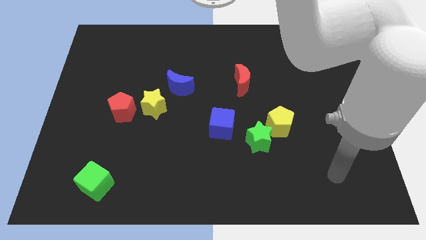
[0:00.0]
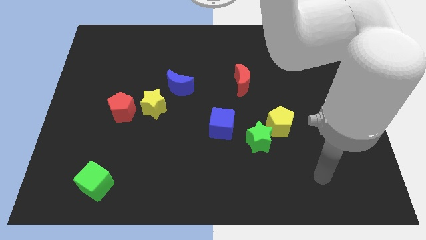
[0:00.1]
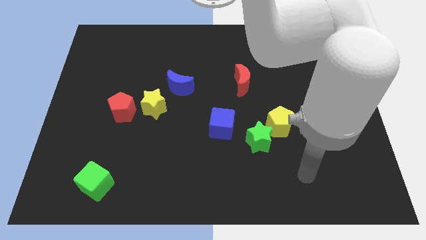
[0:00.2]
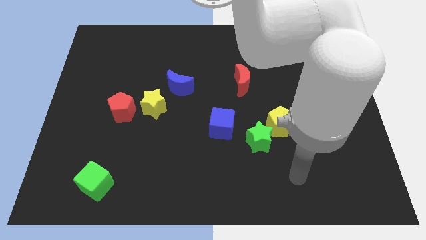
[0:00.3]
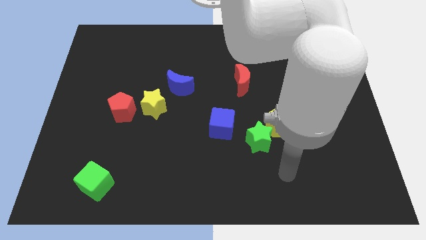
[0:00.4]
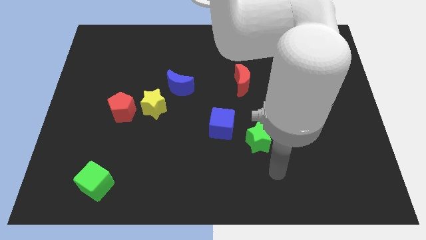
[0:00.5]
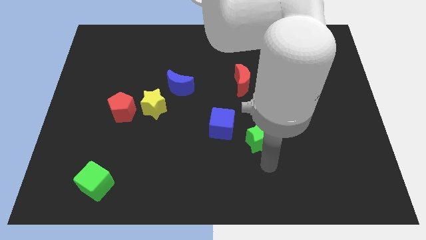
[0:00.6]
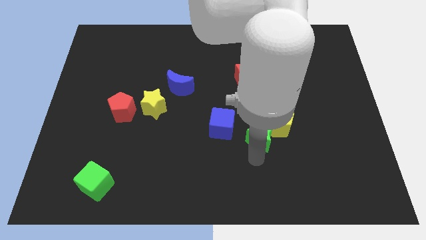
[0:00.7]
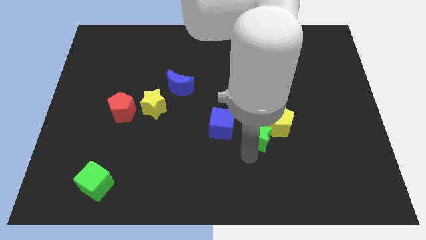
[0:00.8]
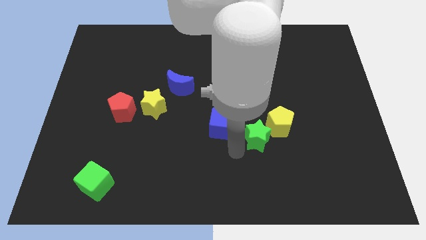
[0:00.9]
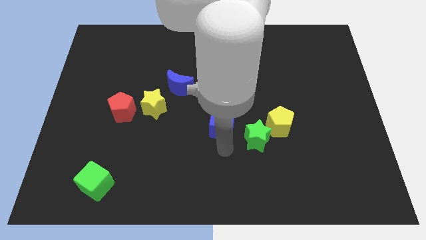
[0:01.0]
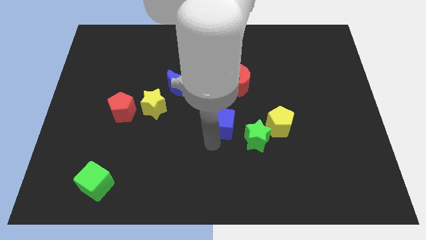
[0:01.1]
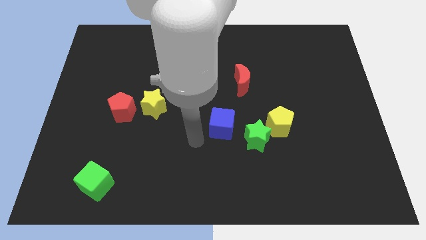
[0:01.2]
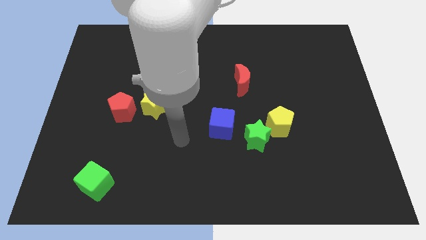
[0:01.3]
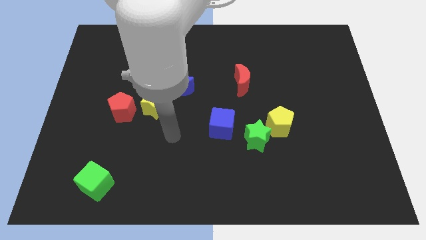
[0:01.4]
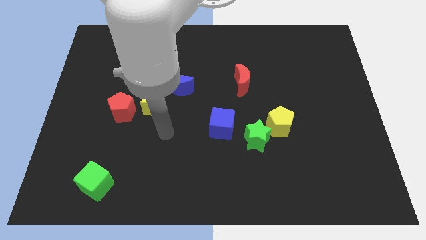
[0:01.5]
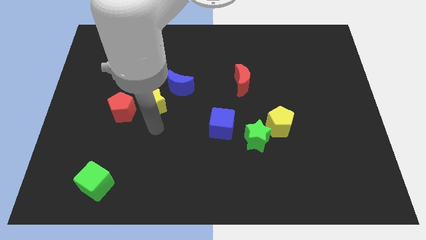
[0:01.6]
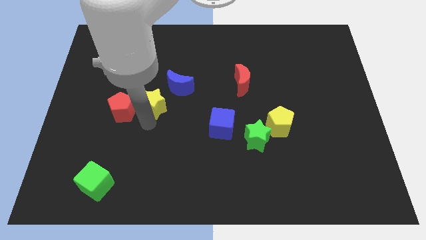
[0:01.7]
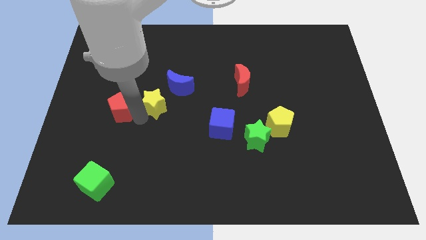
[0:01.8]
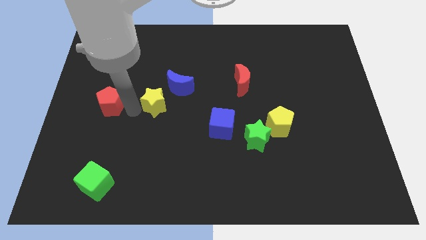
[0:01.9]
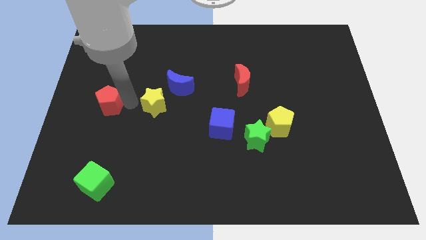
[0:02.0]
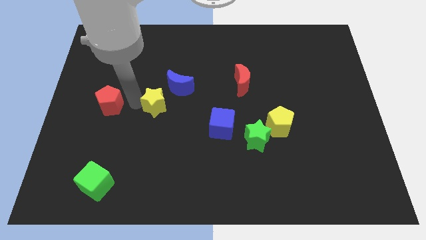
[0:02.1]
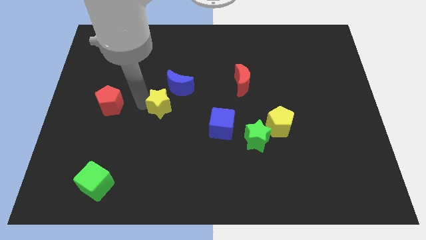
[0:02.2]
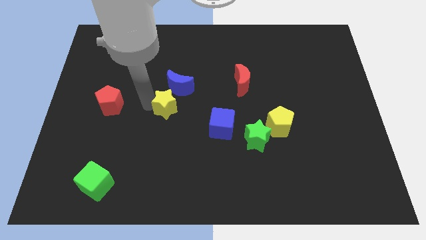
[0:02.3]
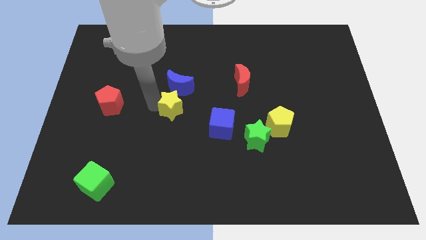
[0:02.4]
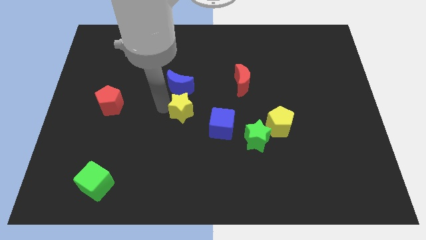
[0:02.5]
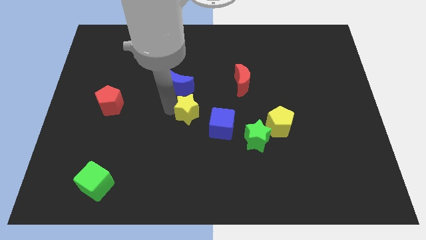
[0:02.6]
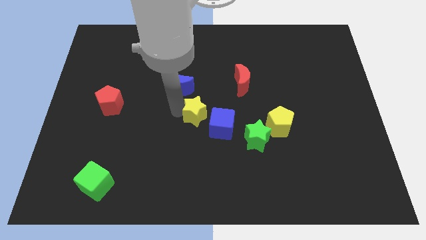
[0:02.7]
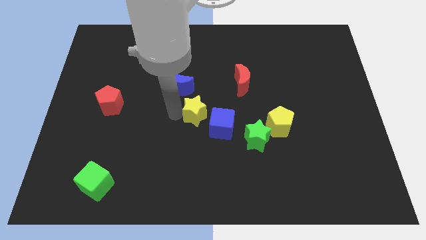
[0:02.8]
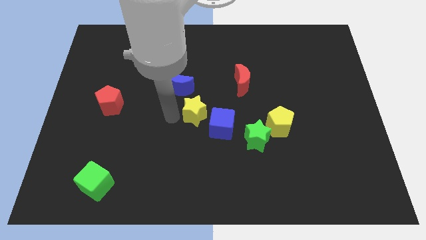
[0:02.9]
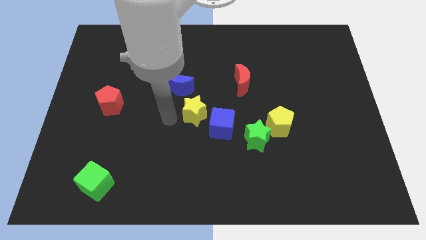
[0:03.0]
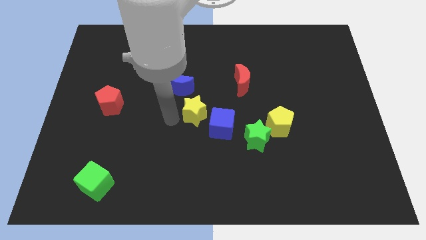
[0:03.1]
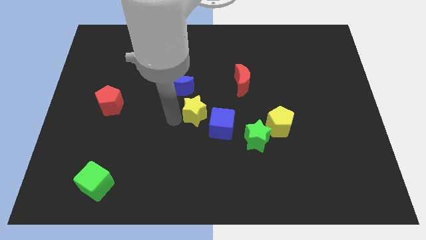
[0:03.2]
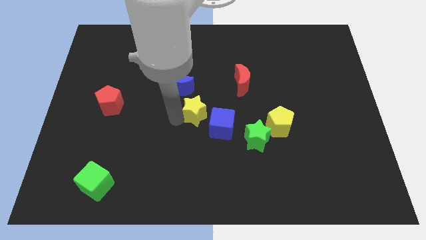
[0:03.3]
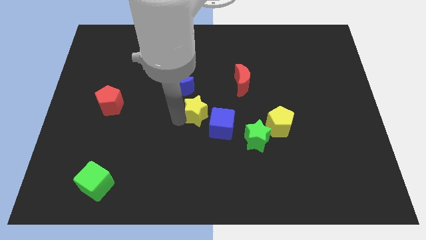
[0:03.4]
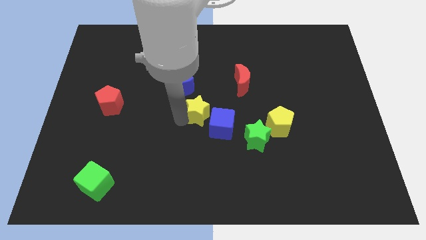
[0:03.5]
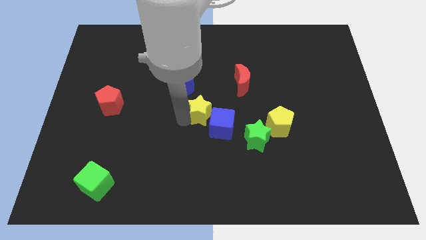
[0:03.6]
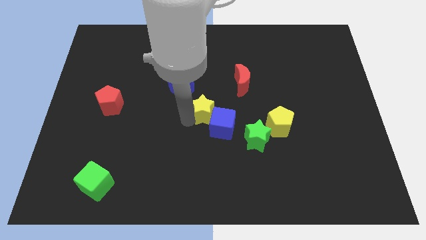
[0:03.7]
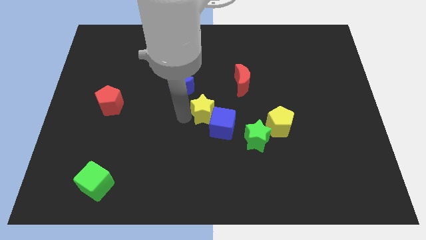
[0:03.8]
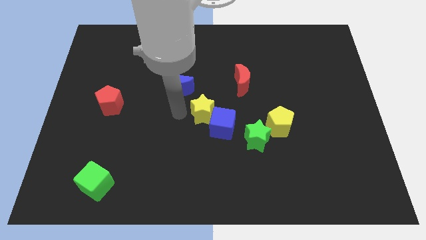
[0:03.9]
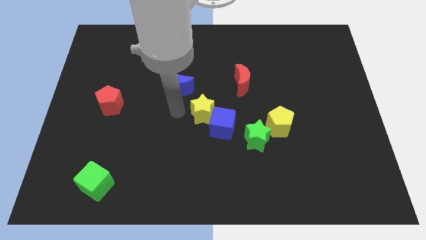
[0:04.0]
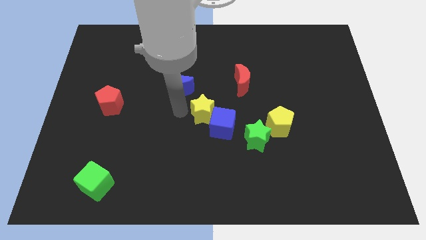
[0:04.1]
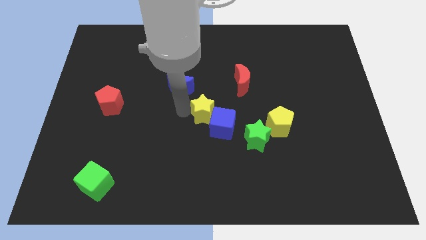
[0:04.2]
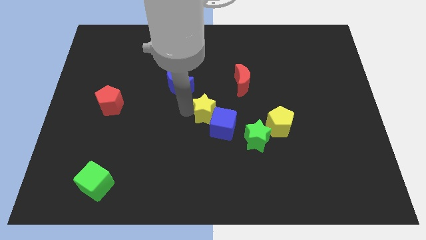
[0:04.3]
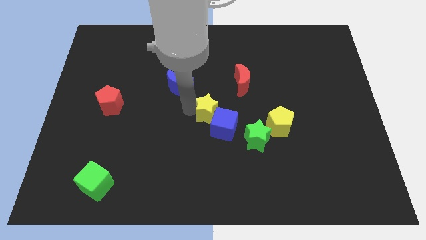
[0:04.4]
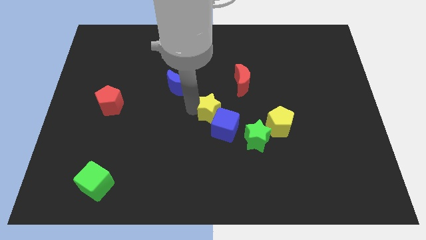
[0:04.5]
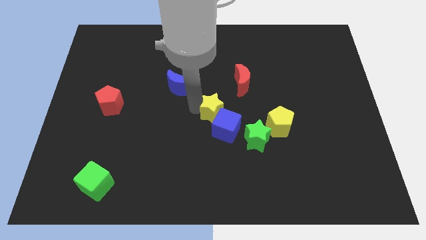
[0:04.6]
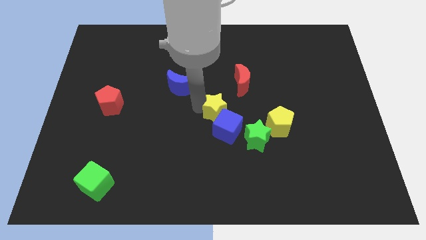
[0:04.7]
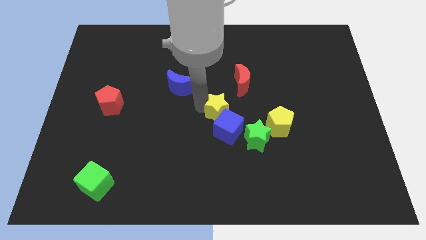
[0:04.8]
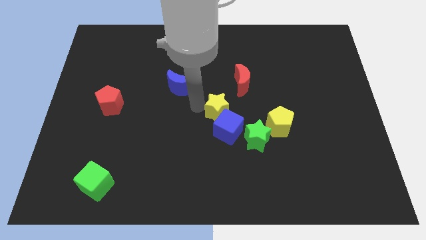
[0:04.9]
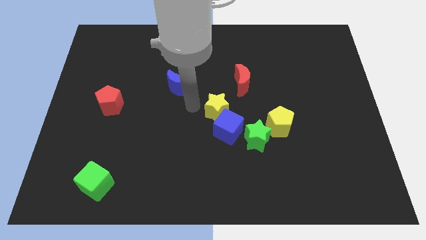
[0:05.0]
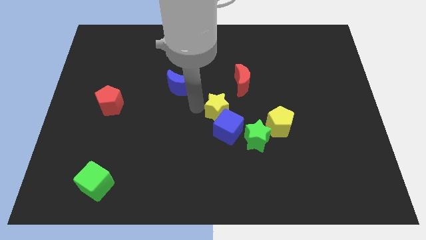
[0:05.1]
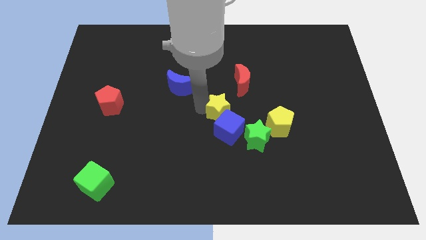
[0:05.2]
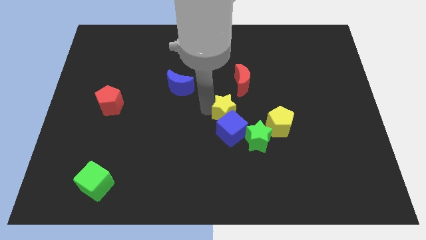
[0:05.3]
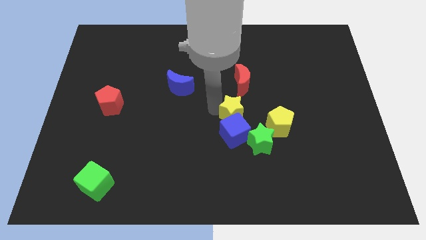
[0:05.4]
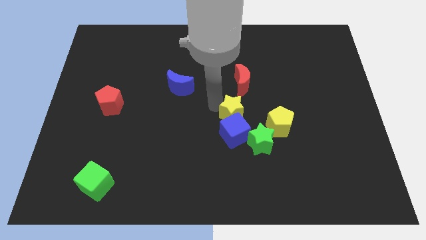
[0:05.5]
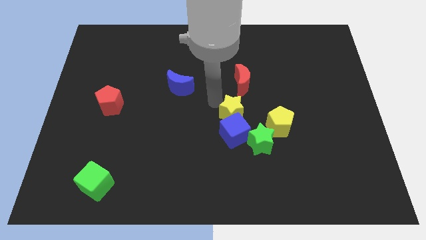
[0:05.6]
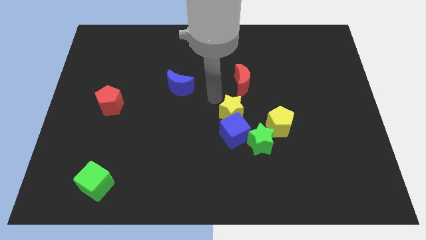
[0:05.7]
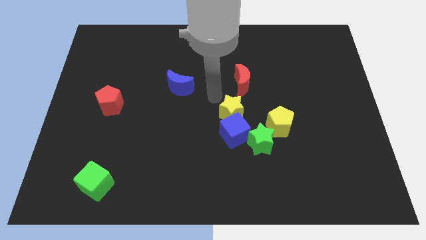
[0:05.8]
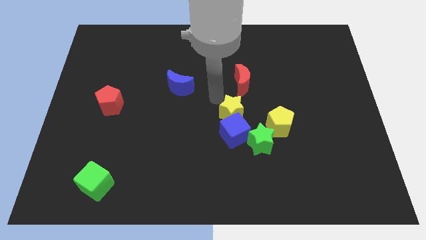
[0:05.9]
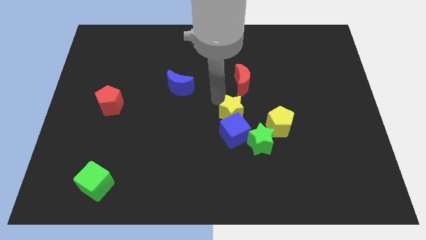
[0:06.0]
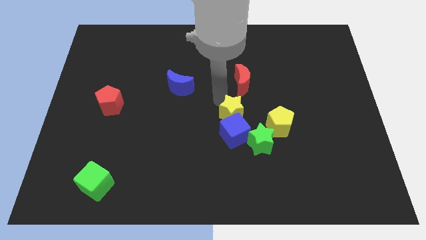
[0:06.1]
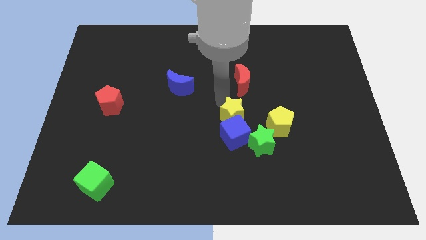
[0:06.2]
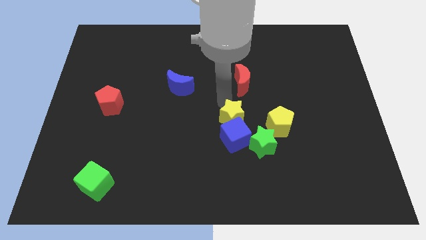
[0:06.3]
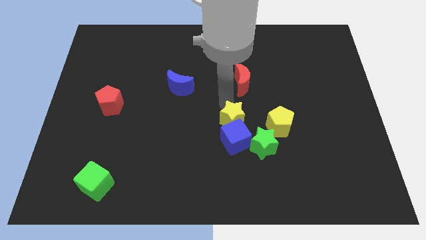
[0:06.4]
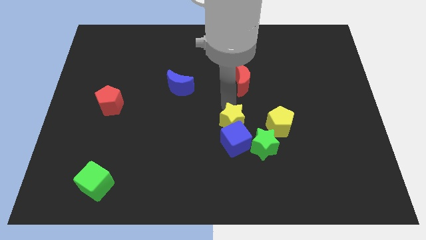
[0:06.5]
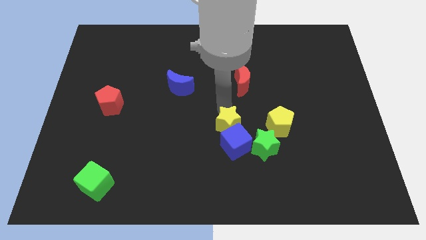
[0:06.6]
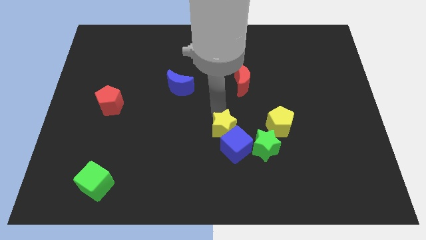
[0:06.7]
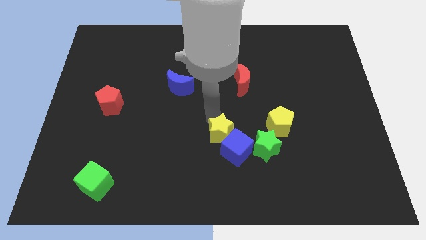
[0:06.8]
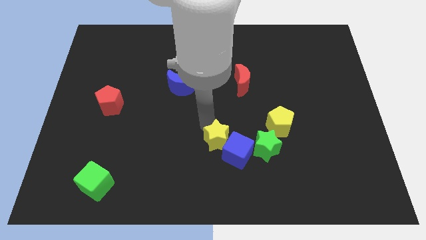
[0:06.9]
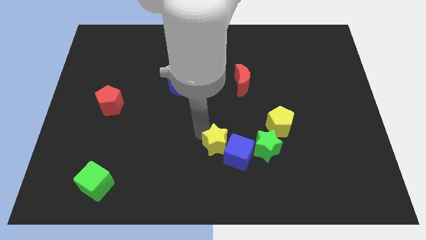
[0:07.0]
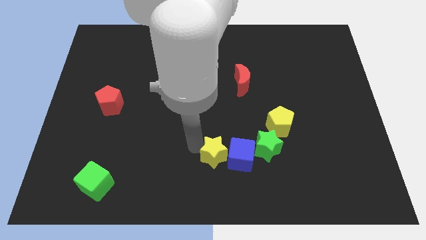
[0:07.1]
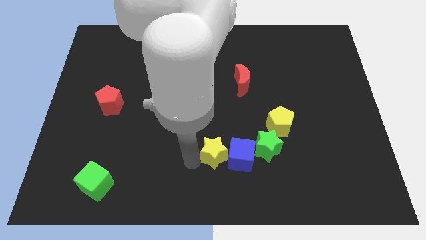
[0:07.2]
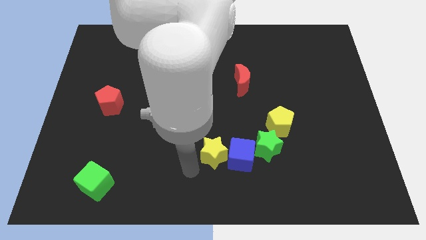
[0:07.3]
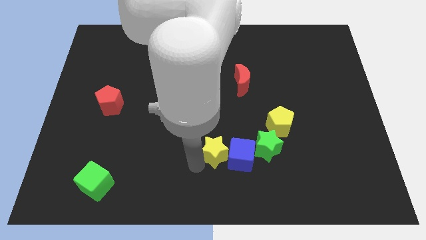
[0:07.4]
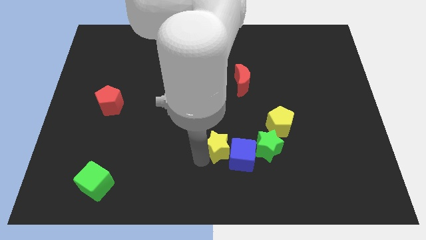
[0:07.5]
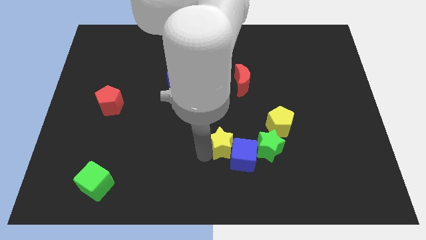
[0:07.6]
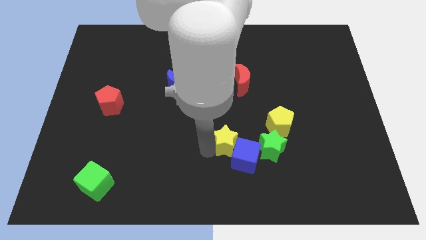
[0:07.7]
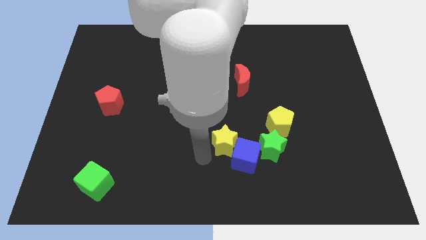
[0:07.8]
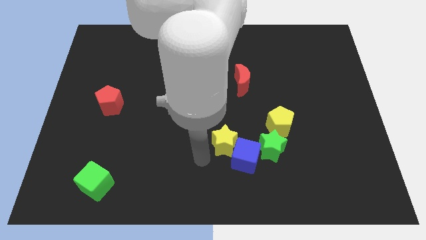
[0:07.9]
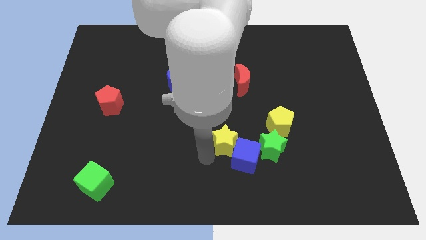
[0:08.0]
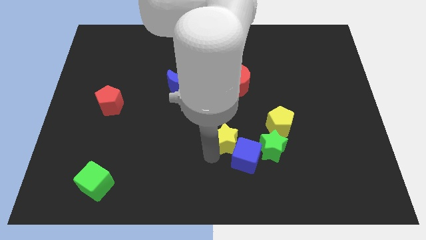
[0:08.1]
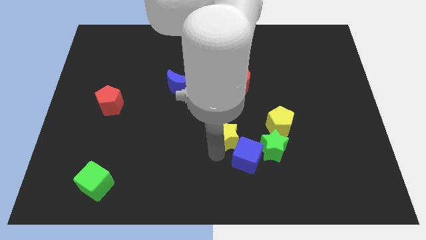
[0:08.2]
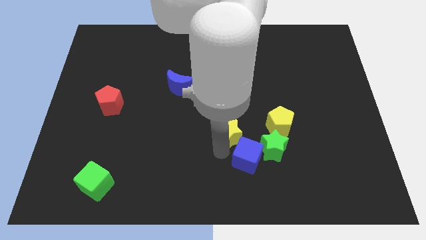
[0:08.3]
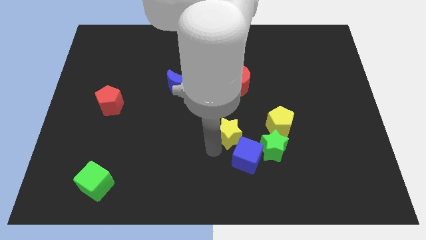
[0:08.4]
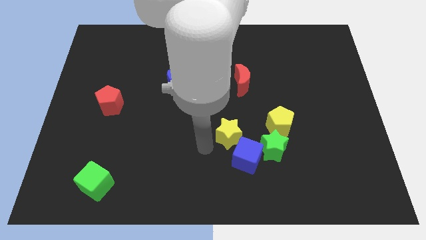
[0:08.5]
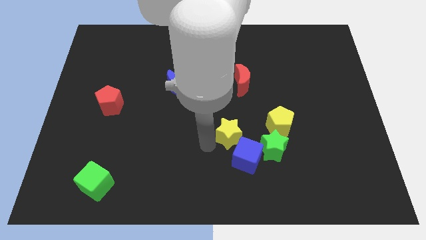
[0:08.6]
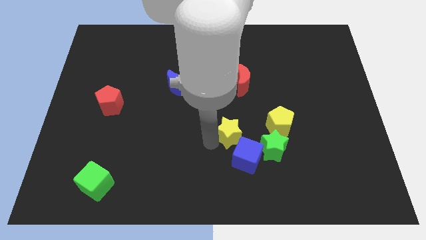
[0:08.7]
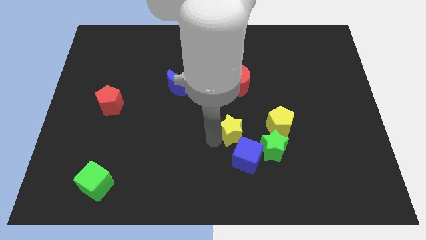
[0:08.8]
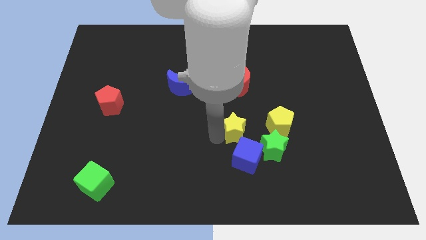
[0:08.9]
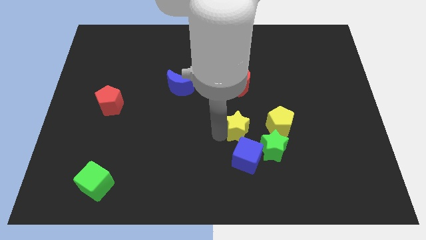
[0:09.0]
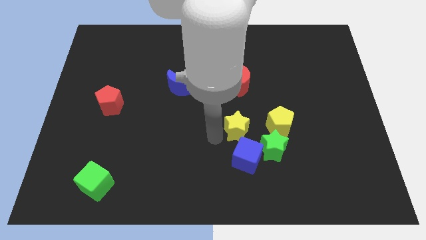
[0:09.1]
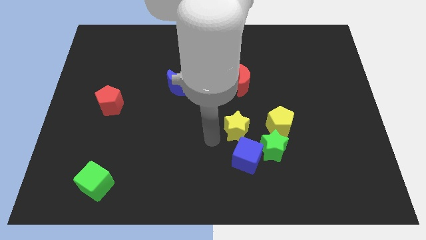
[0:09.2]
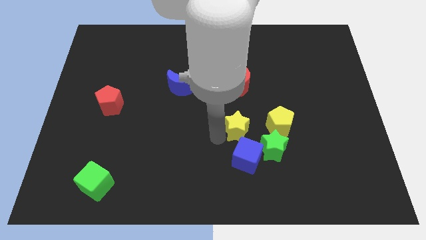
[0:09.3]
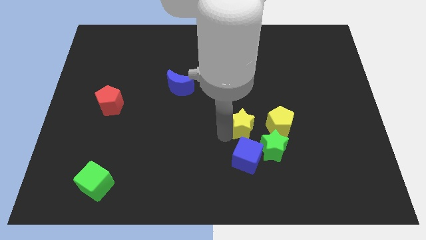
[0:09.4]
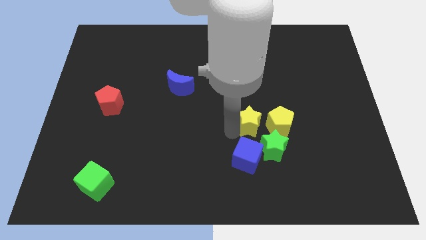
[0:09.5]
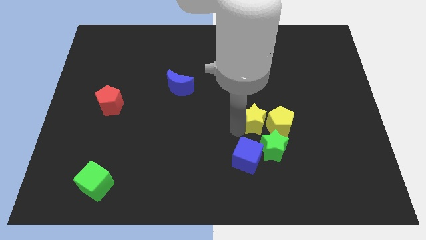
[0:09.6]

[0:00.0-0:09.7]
put the yellow star next to the yellow pentagon
